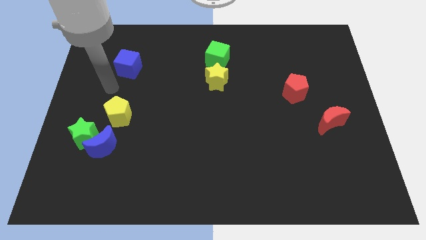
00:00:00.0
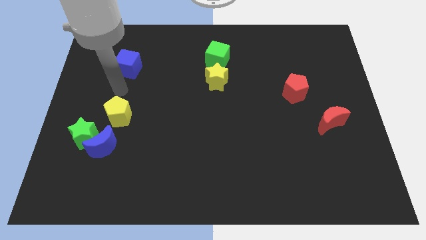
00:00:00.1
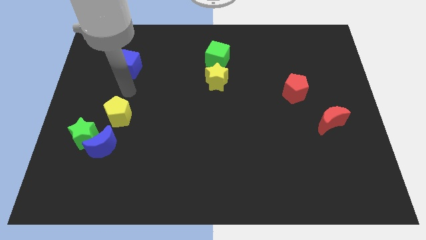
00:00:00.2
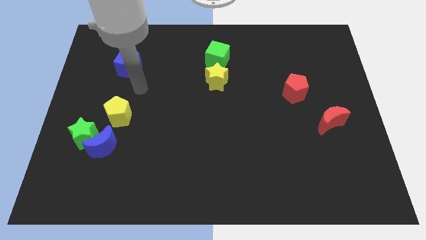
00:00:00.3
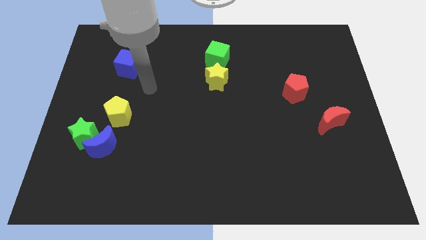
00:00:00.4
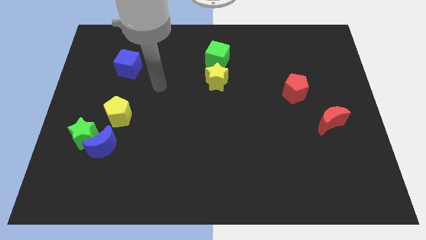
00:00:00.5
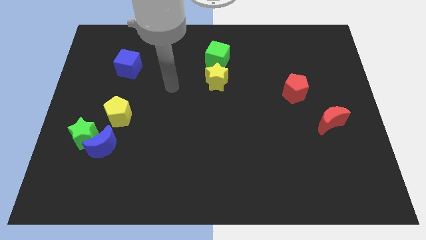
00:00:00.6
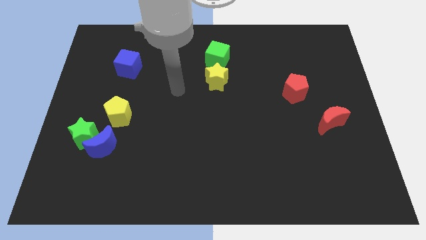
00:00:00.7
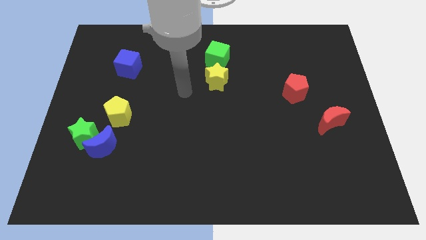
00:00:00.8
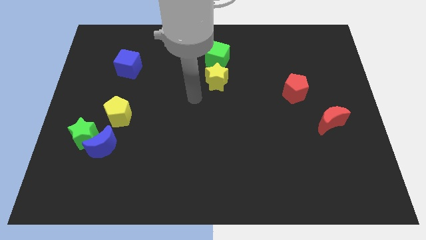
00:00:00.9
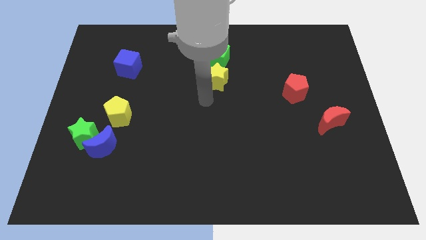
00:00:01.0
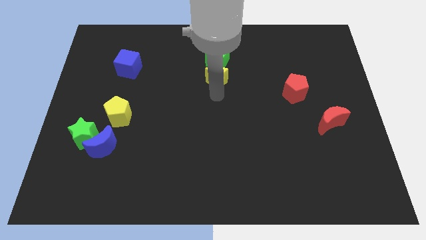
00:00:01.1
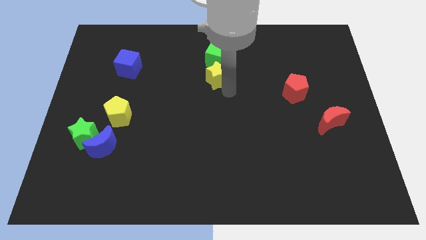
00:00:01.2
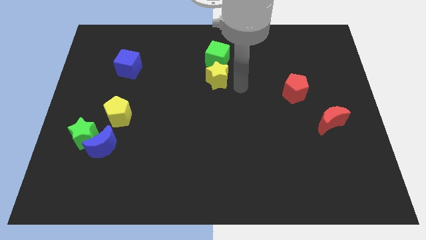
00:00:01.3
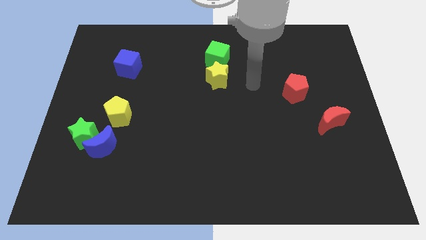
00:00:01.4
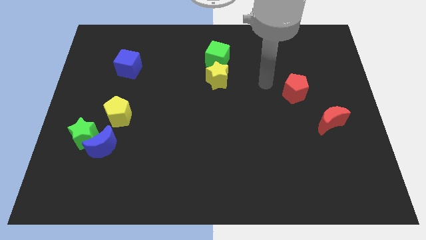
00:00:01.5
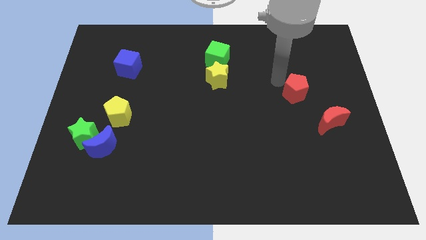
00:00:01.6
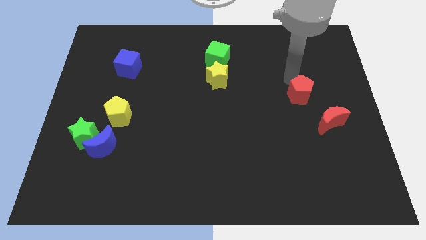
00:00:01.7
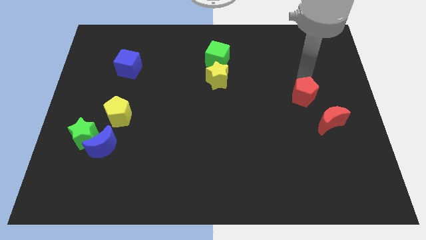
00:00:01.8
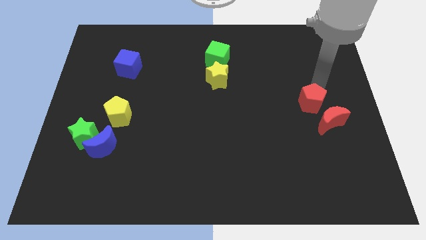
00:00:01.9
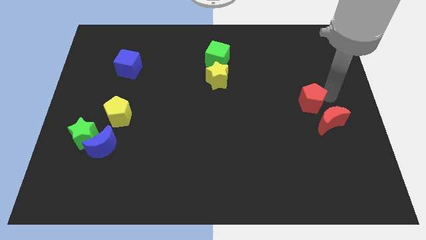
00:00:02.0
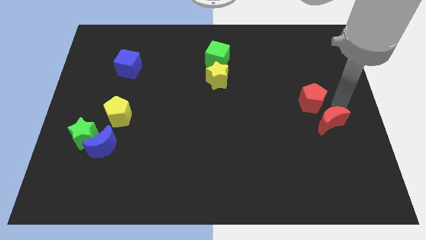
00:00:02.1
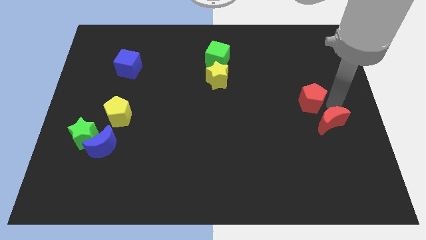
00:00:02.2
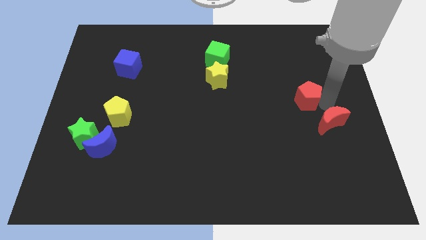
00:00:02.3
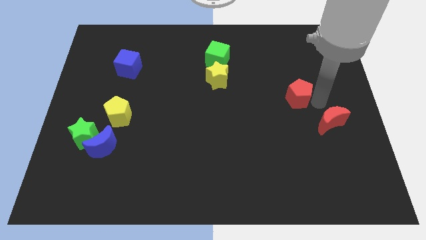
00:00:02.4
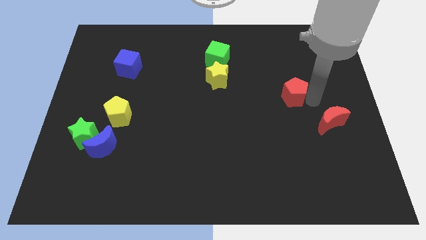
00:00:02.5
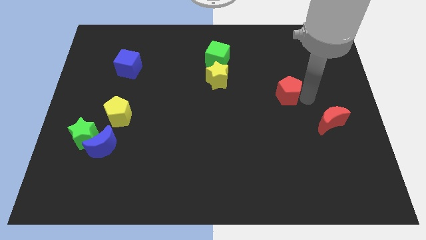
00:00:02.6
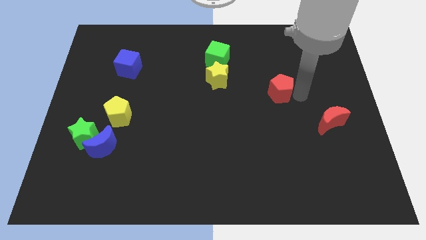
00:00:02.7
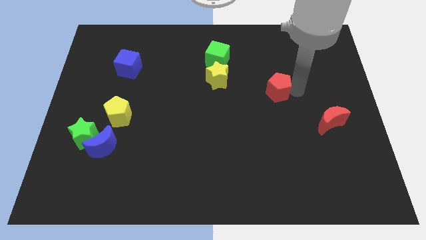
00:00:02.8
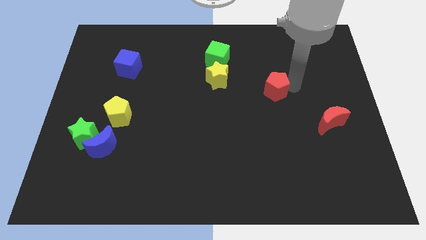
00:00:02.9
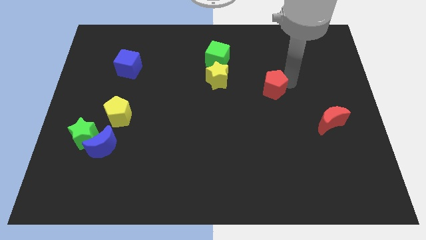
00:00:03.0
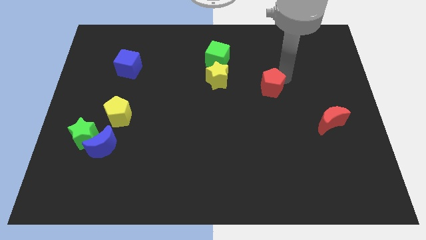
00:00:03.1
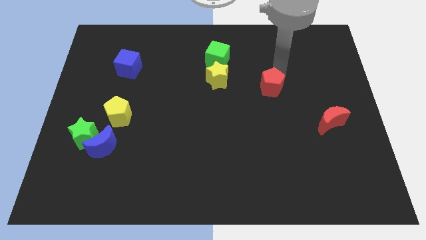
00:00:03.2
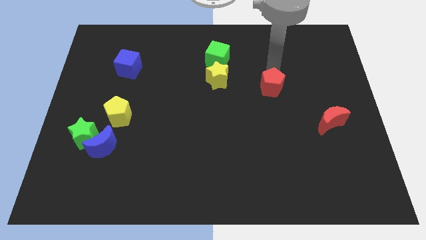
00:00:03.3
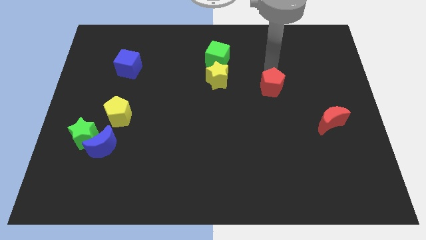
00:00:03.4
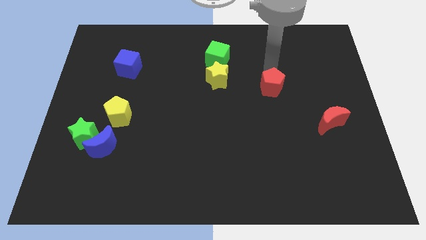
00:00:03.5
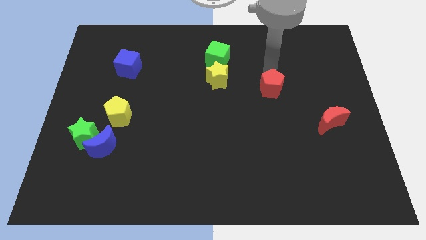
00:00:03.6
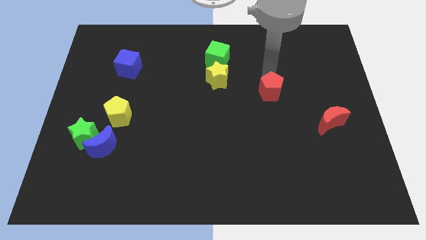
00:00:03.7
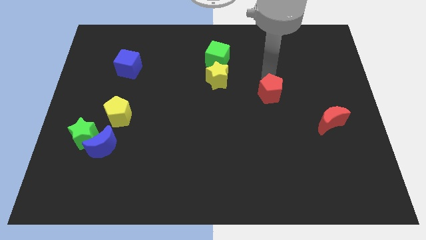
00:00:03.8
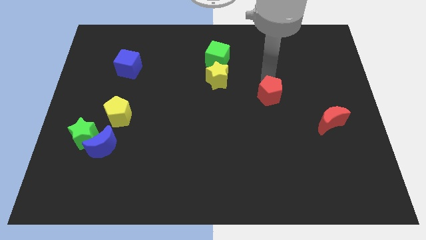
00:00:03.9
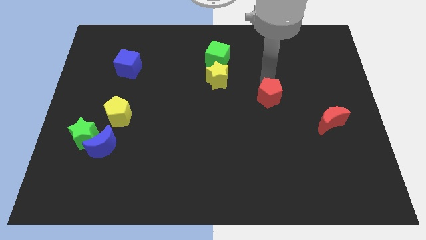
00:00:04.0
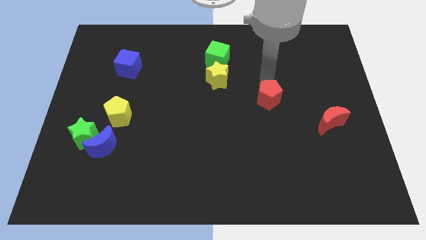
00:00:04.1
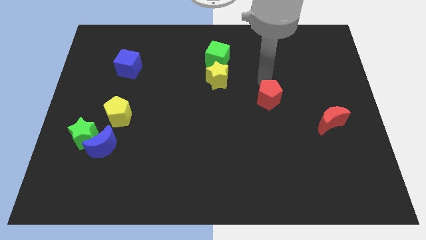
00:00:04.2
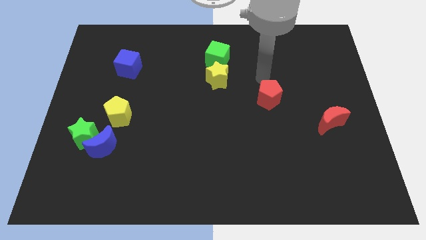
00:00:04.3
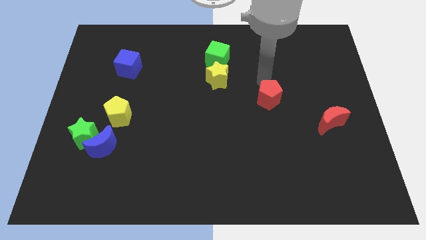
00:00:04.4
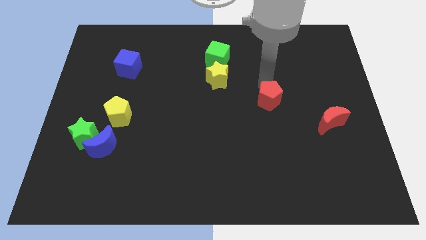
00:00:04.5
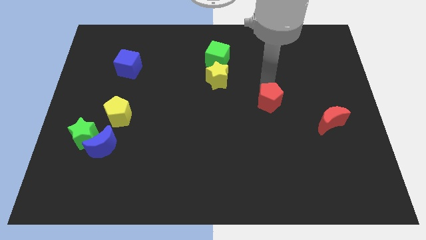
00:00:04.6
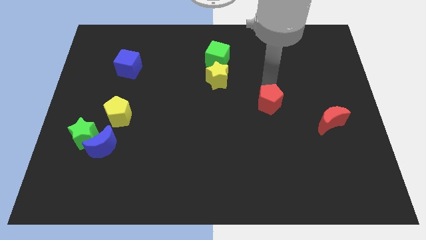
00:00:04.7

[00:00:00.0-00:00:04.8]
slightly move the red pentagon diagonally downwards and left

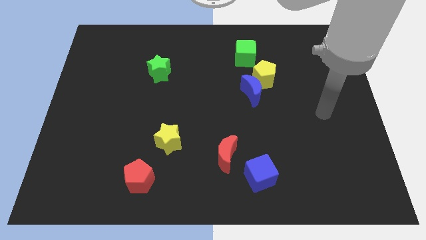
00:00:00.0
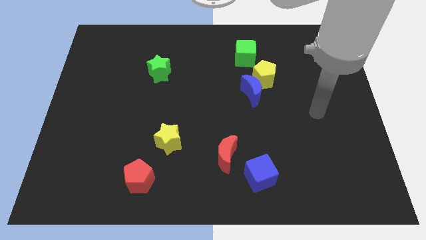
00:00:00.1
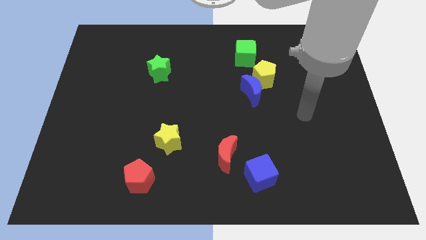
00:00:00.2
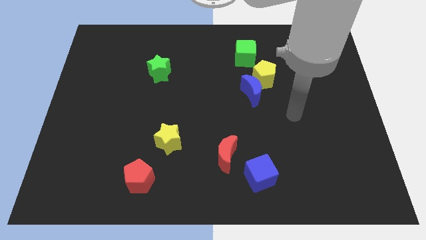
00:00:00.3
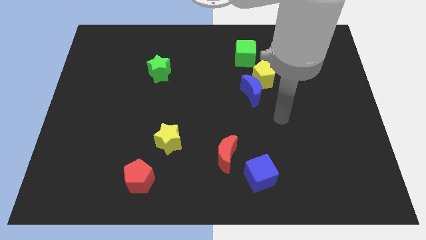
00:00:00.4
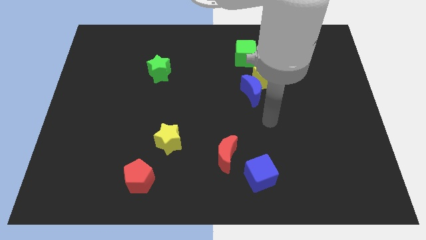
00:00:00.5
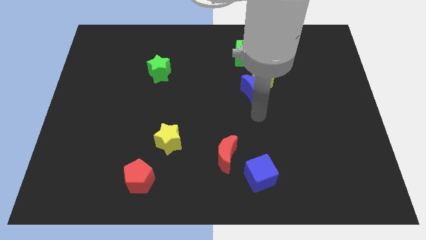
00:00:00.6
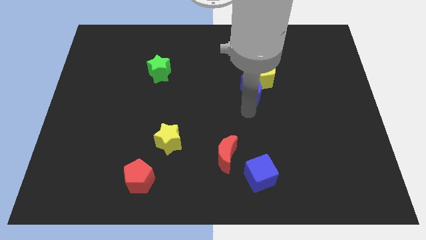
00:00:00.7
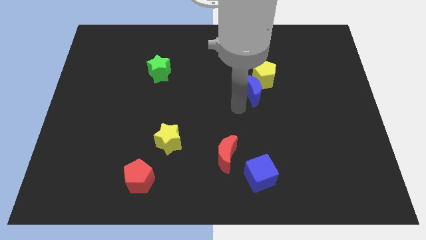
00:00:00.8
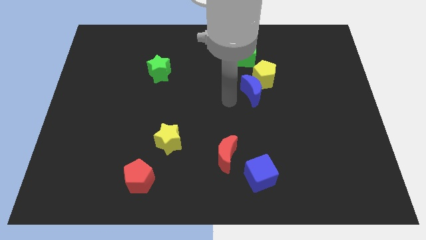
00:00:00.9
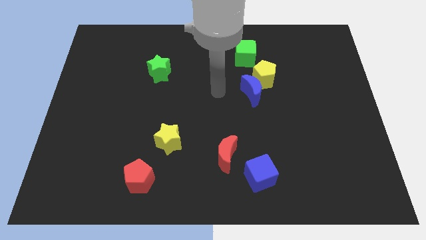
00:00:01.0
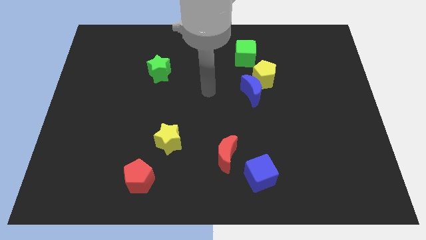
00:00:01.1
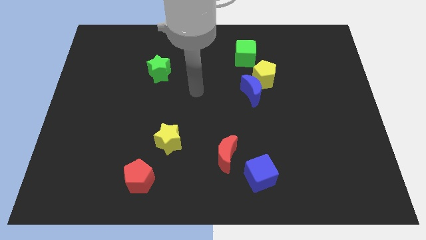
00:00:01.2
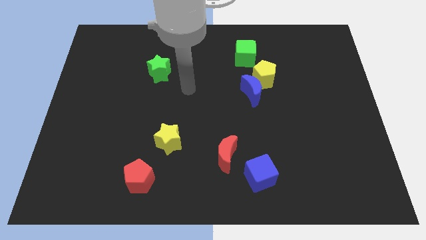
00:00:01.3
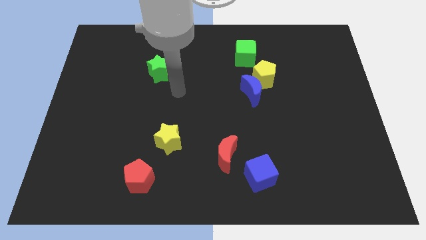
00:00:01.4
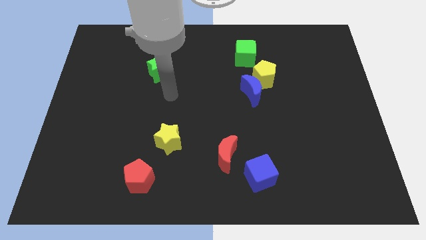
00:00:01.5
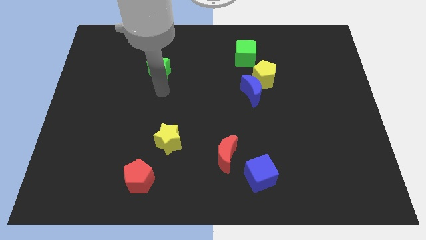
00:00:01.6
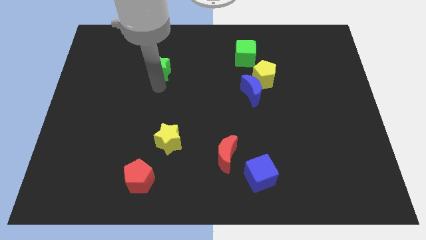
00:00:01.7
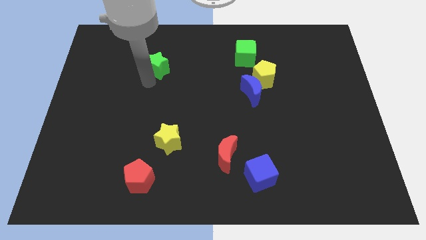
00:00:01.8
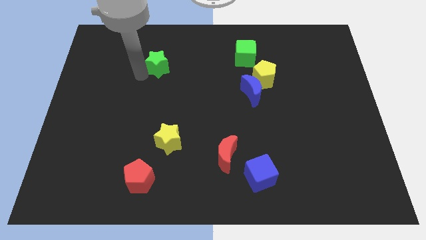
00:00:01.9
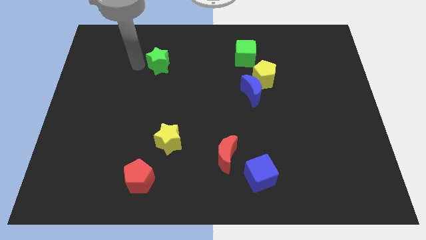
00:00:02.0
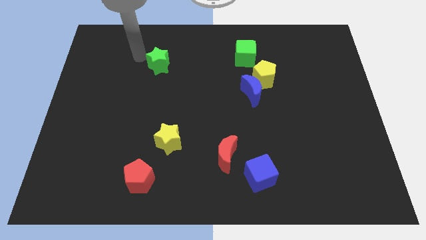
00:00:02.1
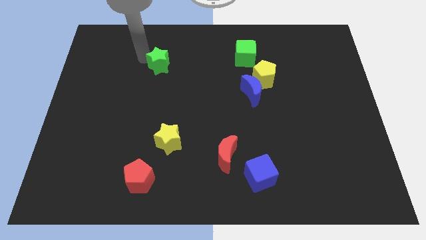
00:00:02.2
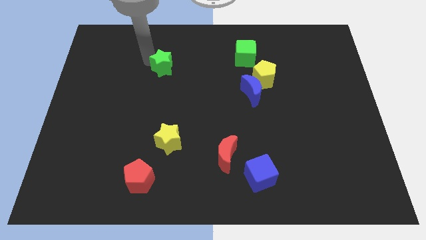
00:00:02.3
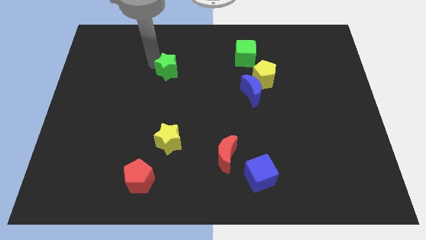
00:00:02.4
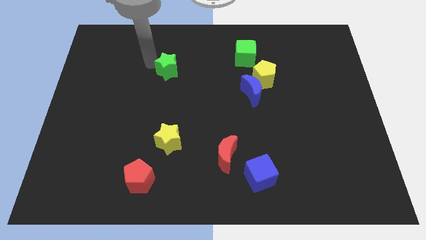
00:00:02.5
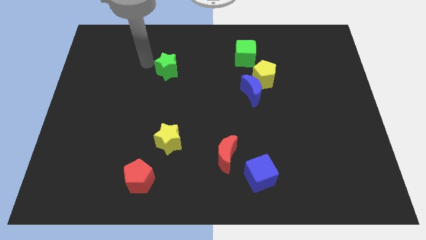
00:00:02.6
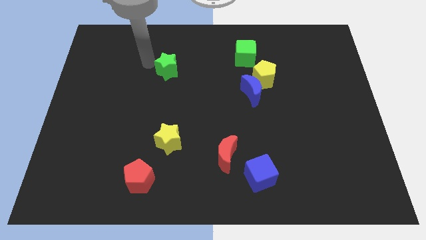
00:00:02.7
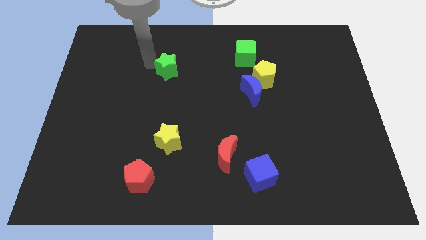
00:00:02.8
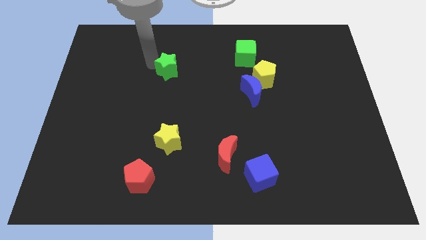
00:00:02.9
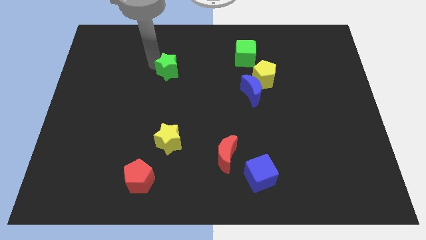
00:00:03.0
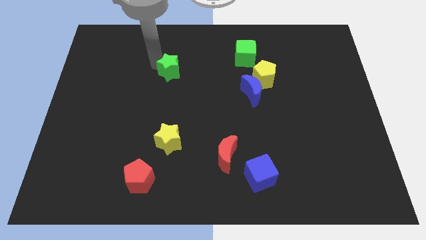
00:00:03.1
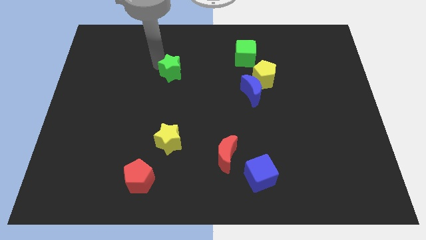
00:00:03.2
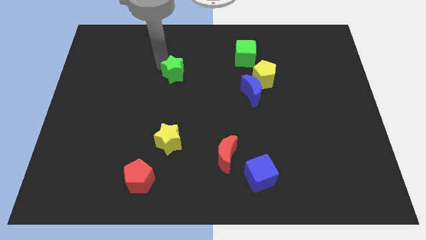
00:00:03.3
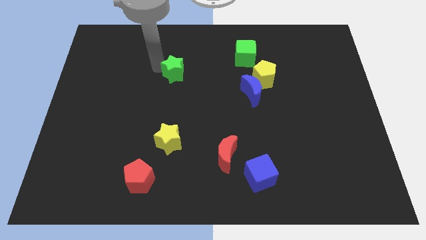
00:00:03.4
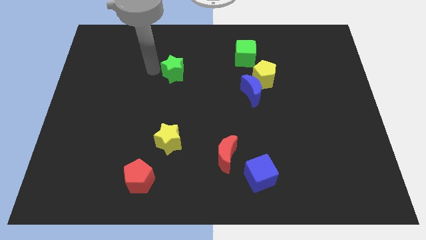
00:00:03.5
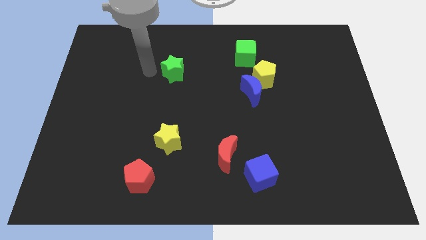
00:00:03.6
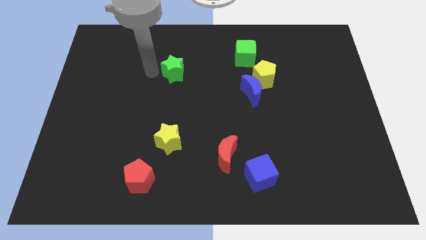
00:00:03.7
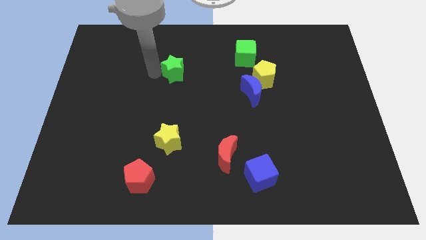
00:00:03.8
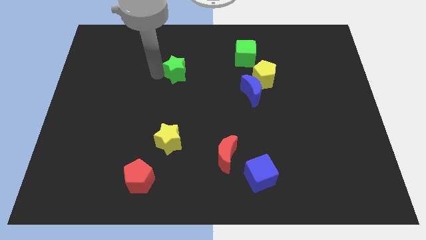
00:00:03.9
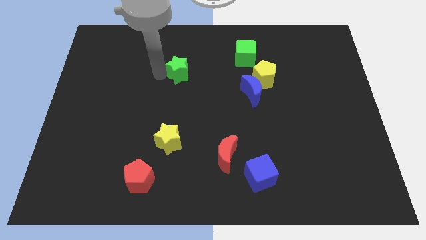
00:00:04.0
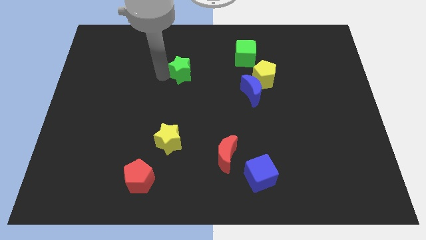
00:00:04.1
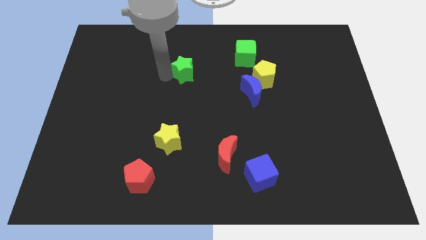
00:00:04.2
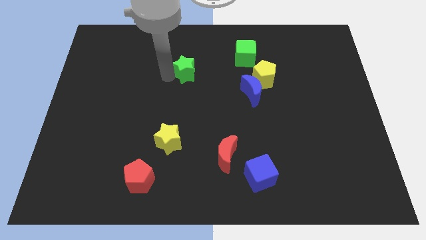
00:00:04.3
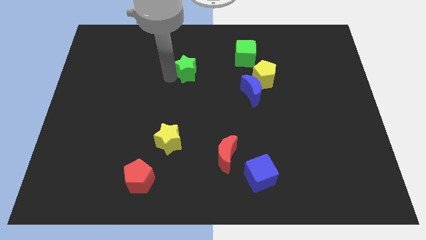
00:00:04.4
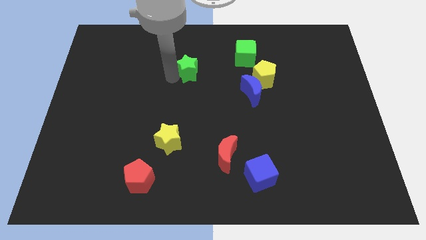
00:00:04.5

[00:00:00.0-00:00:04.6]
slide the green star a little to the right
